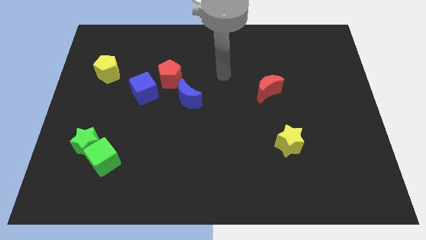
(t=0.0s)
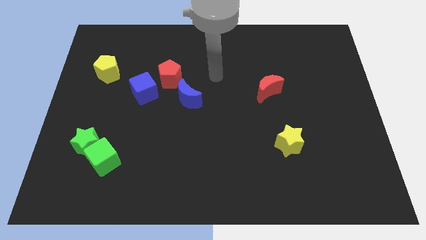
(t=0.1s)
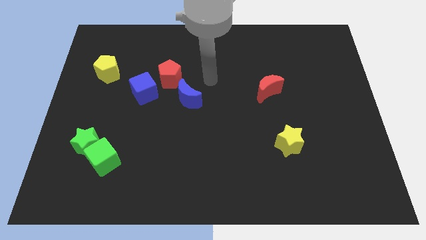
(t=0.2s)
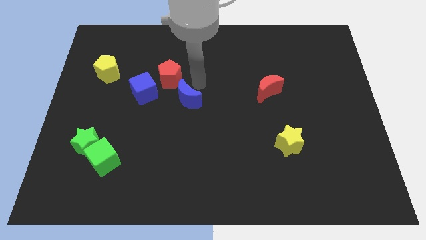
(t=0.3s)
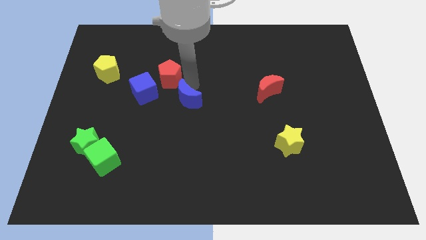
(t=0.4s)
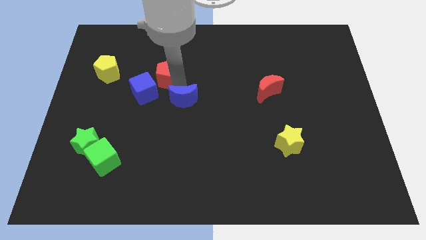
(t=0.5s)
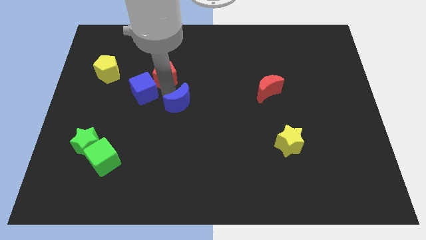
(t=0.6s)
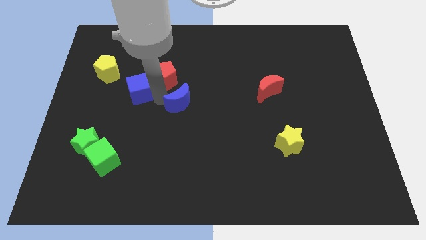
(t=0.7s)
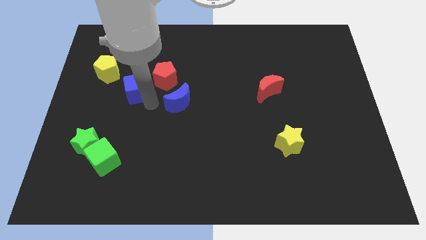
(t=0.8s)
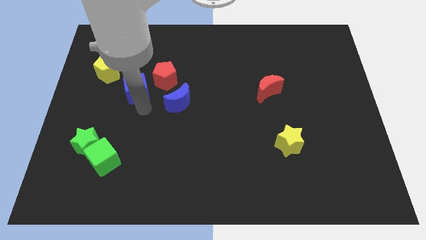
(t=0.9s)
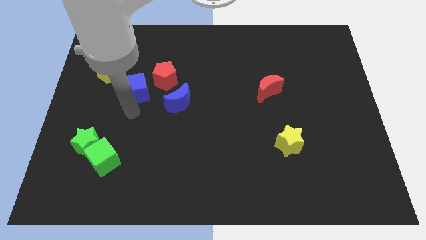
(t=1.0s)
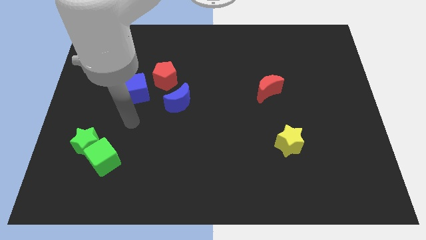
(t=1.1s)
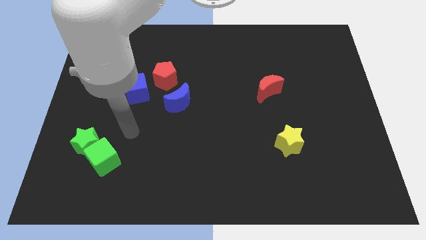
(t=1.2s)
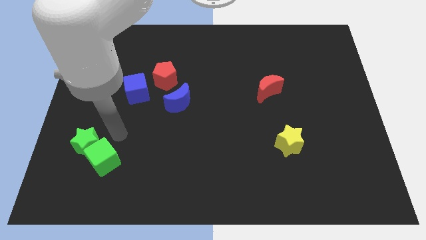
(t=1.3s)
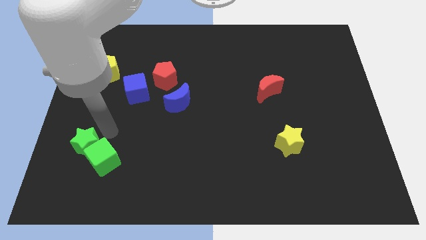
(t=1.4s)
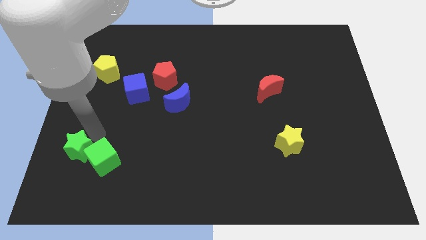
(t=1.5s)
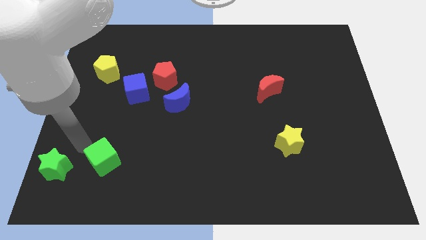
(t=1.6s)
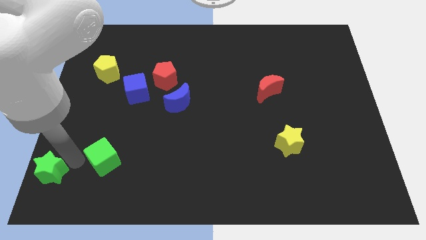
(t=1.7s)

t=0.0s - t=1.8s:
pull the green cube apart from the green star

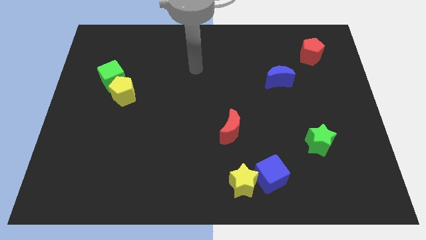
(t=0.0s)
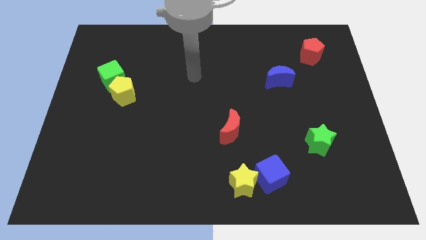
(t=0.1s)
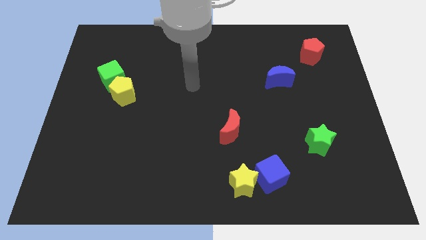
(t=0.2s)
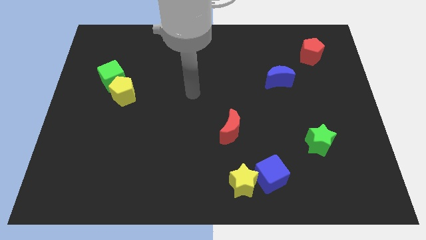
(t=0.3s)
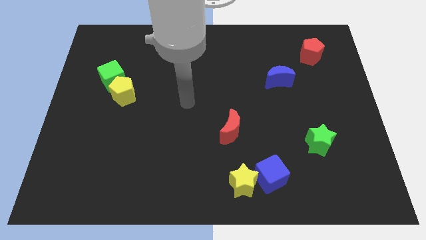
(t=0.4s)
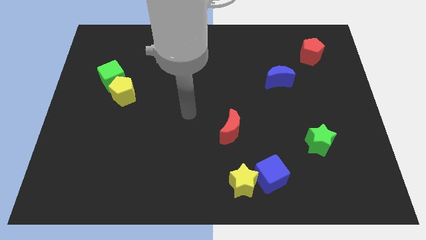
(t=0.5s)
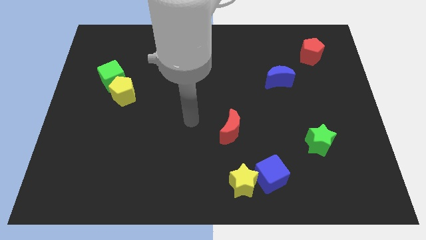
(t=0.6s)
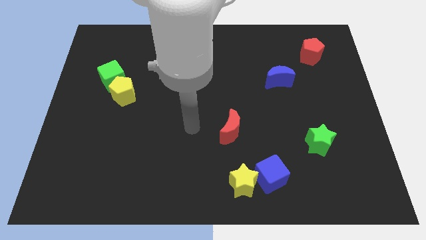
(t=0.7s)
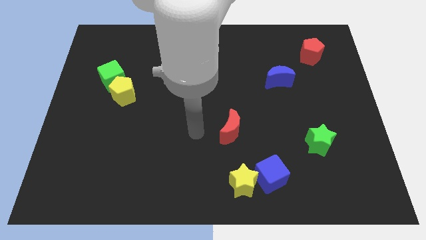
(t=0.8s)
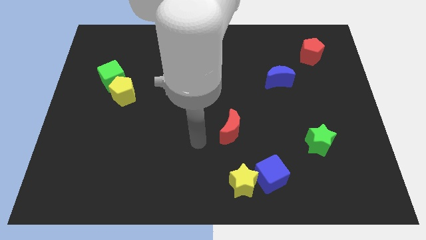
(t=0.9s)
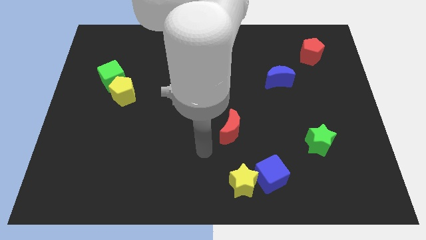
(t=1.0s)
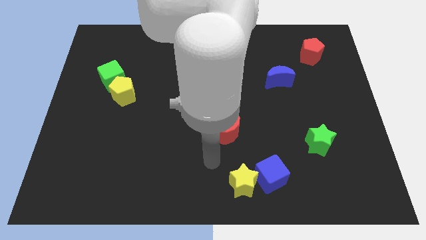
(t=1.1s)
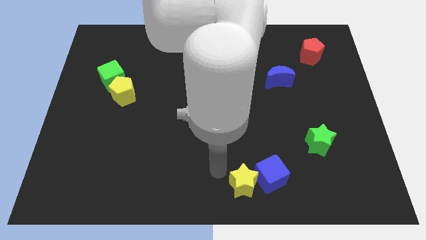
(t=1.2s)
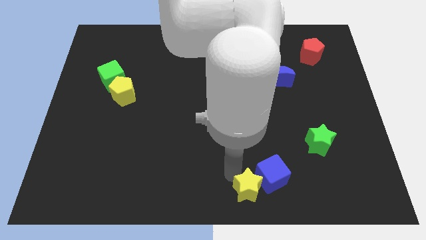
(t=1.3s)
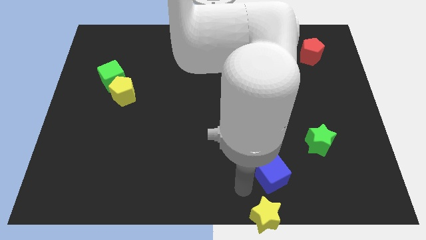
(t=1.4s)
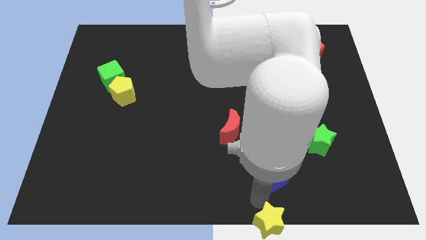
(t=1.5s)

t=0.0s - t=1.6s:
pull the blue cube apart from the yellow star

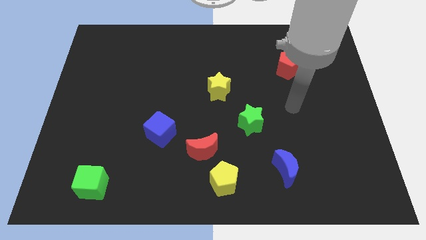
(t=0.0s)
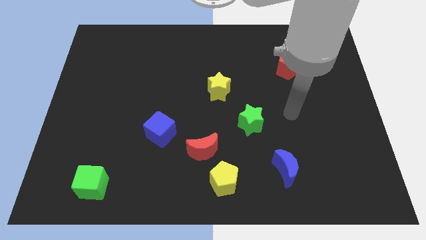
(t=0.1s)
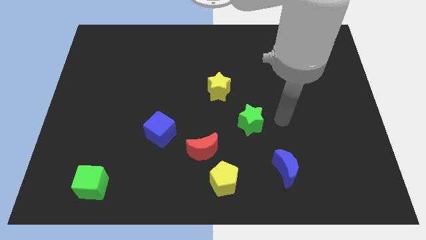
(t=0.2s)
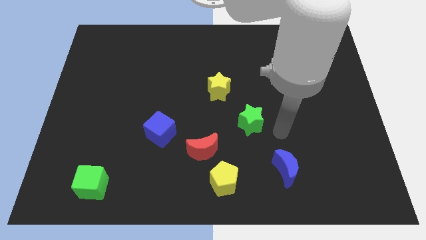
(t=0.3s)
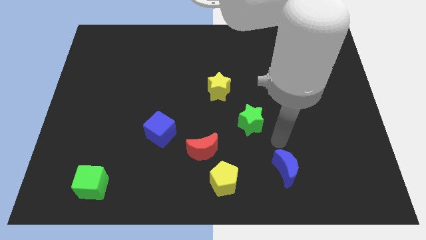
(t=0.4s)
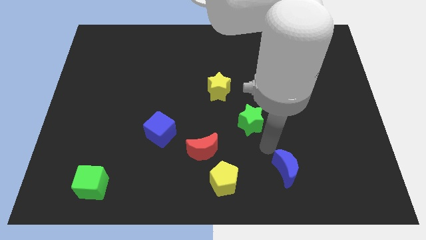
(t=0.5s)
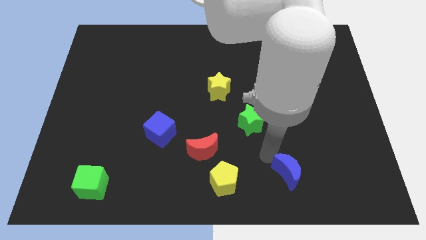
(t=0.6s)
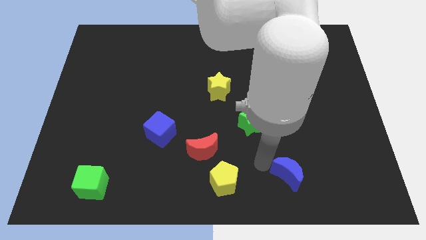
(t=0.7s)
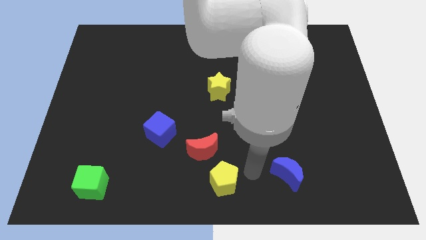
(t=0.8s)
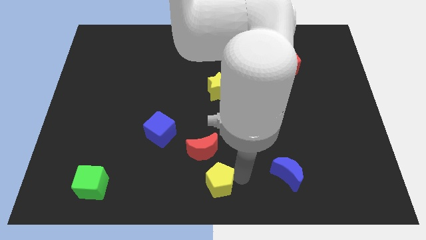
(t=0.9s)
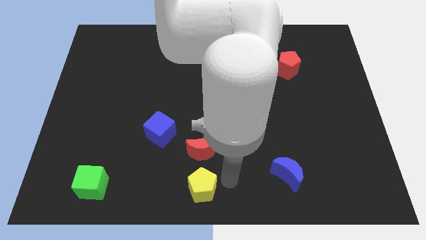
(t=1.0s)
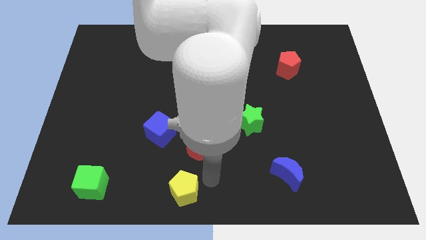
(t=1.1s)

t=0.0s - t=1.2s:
move the red moon away from the yellow pentagon

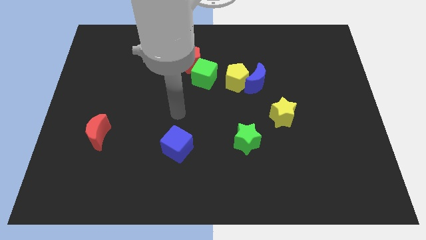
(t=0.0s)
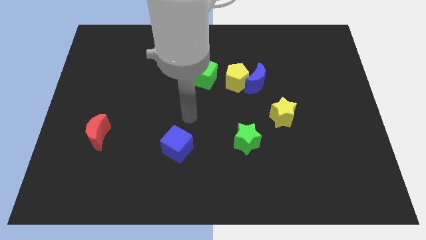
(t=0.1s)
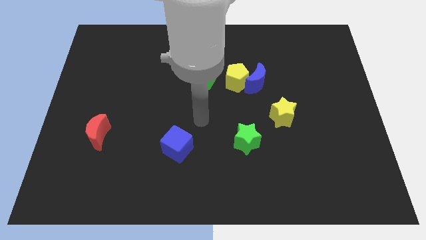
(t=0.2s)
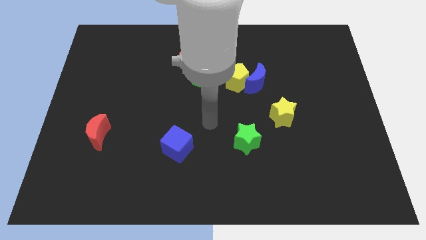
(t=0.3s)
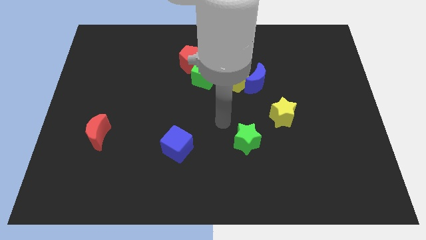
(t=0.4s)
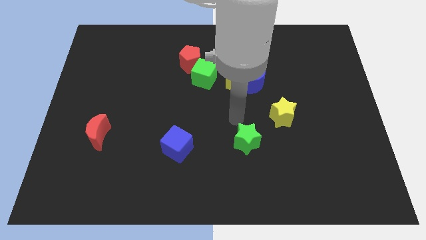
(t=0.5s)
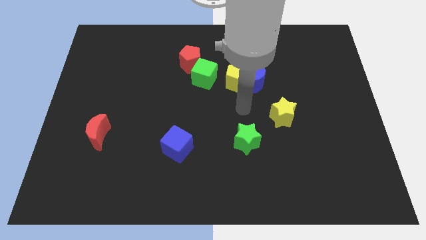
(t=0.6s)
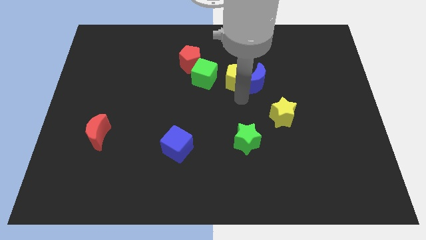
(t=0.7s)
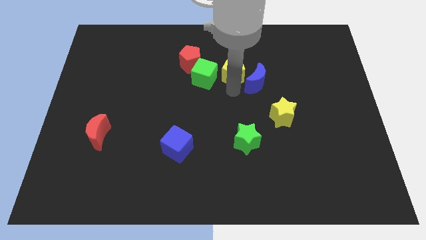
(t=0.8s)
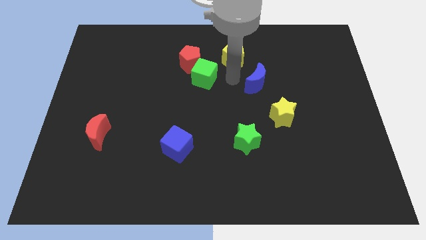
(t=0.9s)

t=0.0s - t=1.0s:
pull the blue moon apart from the yellow pentagon

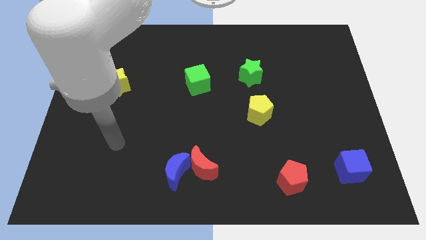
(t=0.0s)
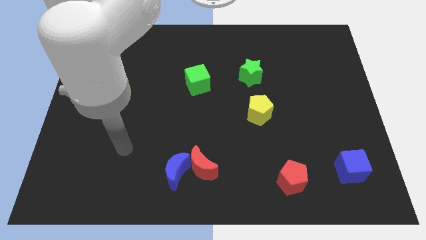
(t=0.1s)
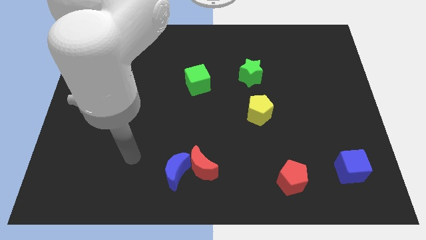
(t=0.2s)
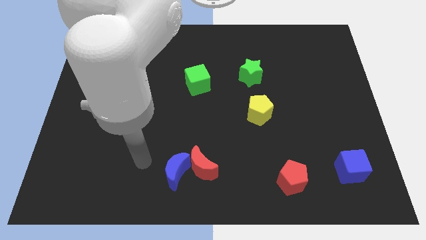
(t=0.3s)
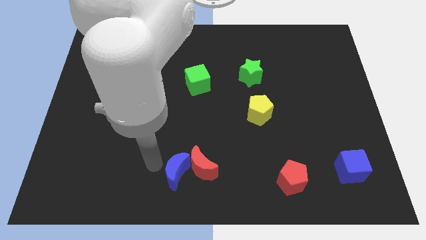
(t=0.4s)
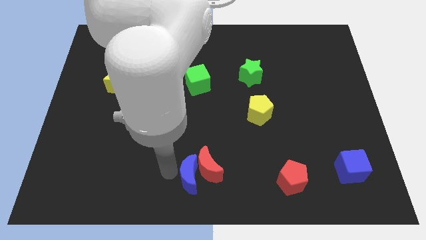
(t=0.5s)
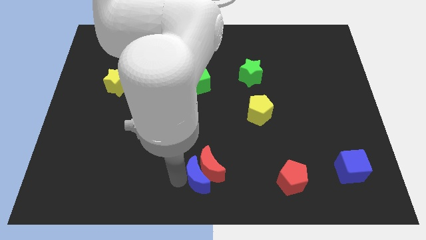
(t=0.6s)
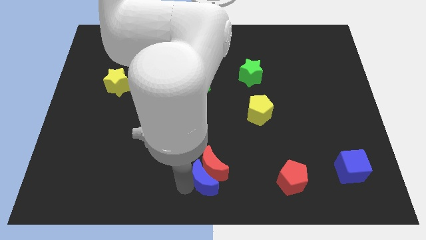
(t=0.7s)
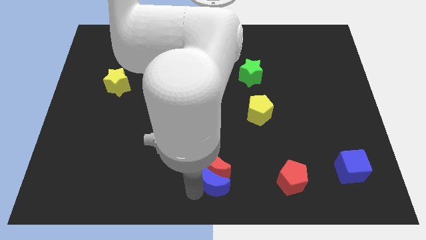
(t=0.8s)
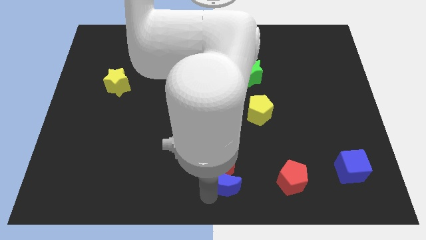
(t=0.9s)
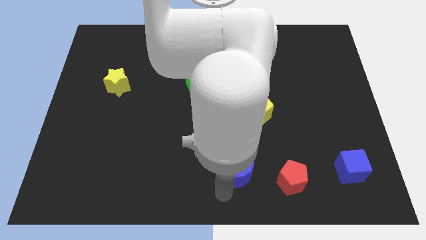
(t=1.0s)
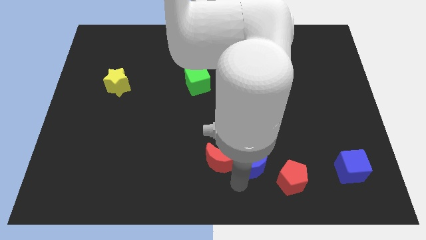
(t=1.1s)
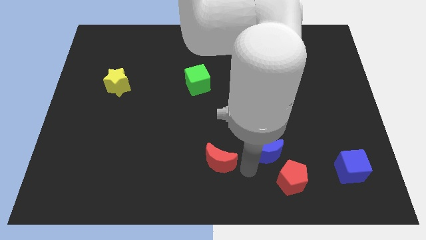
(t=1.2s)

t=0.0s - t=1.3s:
pull the red moon apart from the blue moon

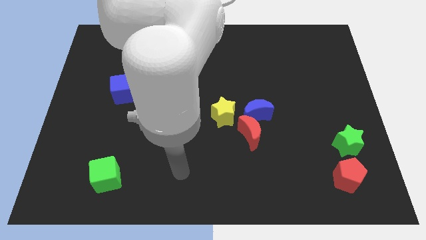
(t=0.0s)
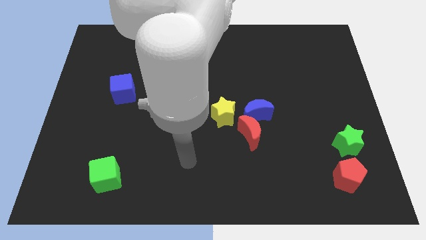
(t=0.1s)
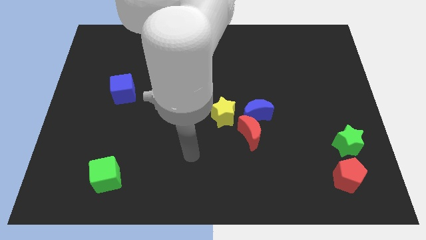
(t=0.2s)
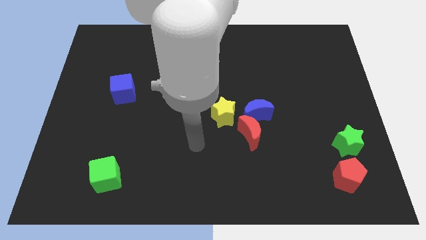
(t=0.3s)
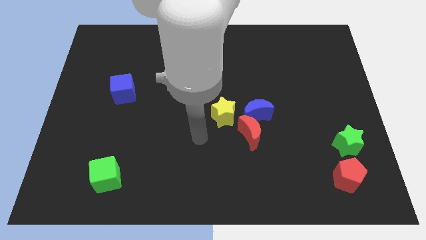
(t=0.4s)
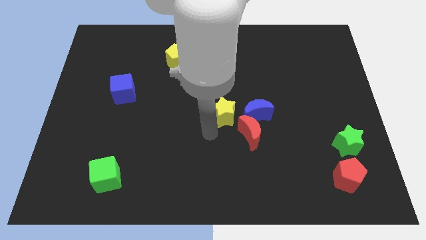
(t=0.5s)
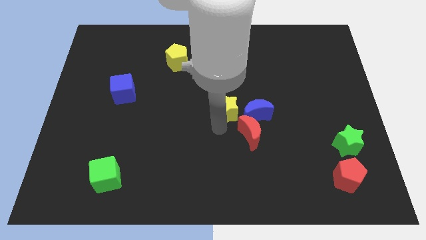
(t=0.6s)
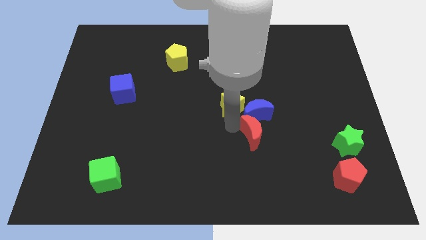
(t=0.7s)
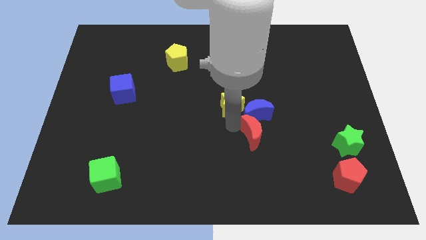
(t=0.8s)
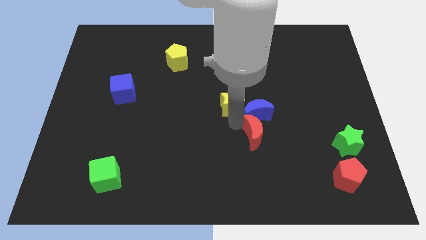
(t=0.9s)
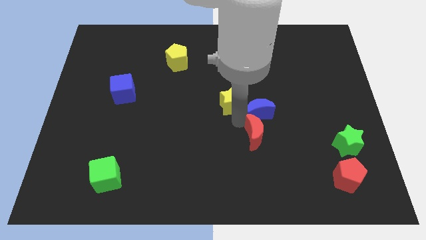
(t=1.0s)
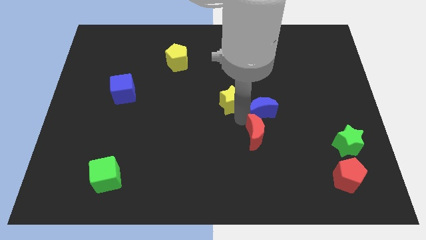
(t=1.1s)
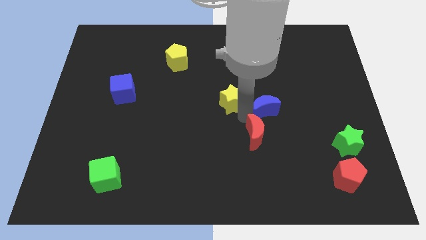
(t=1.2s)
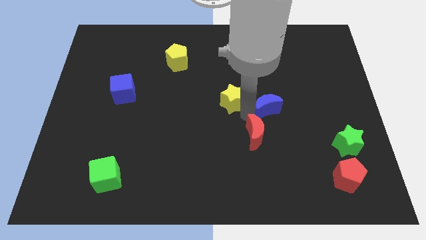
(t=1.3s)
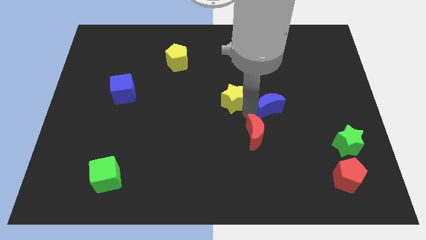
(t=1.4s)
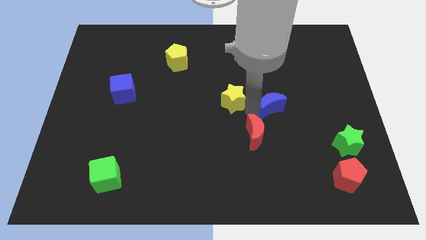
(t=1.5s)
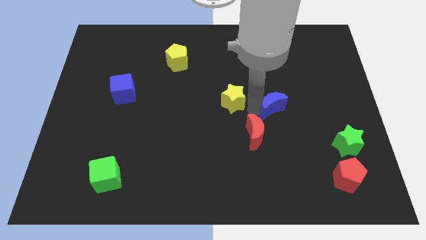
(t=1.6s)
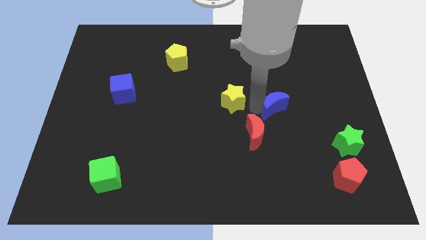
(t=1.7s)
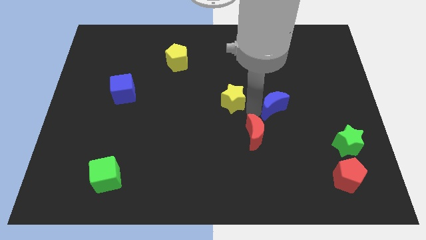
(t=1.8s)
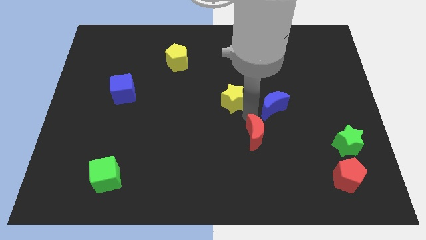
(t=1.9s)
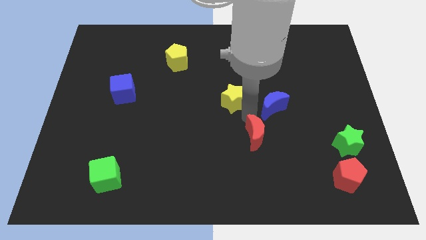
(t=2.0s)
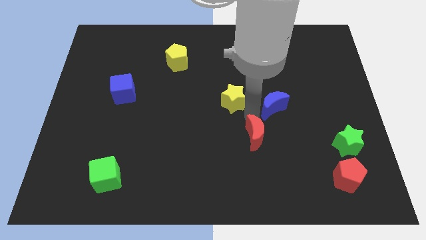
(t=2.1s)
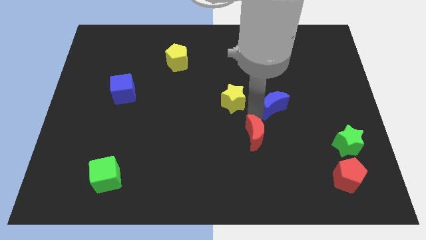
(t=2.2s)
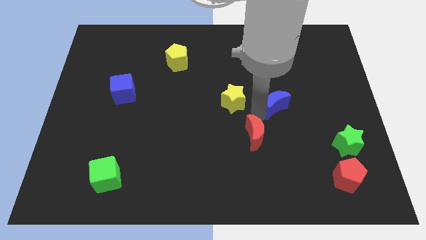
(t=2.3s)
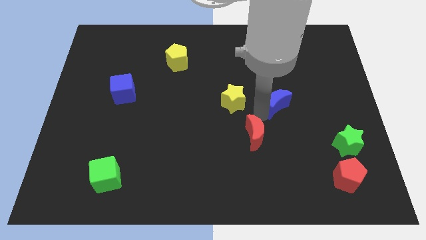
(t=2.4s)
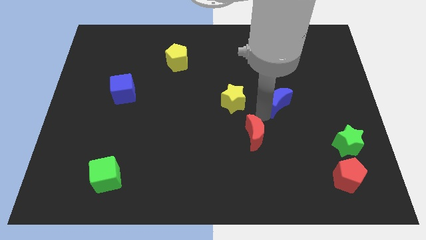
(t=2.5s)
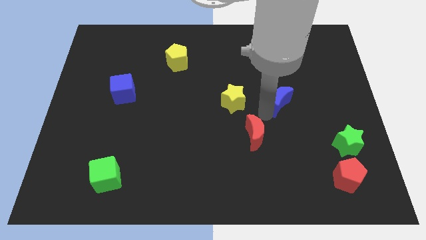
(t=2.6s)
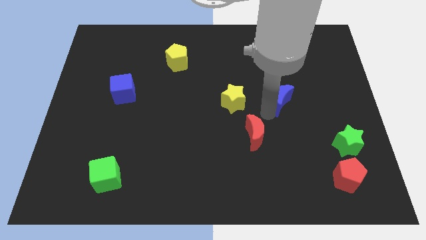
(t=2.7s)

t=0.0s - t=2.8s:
separate the blue moon from the red moon and yellow star
